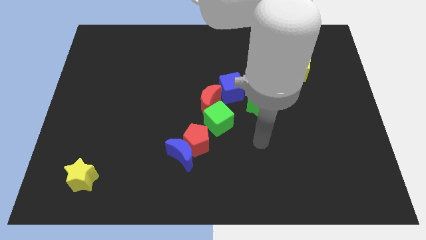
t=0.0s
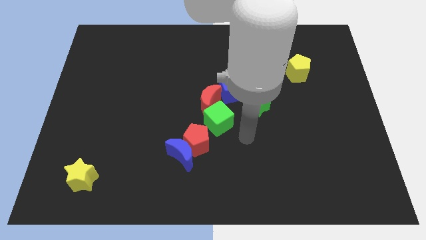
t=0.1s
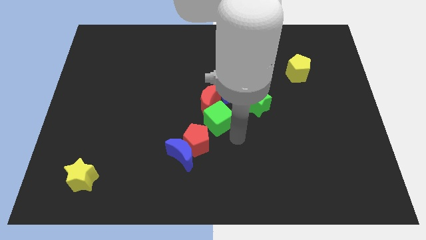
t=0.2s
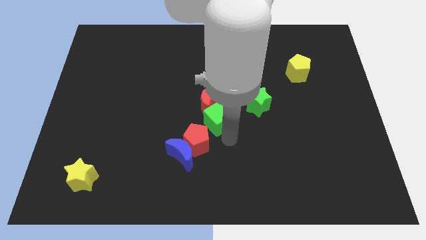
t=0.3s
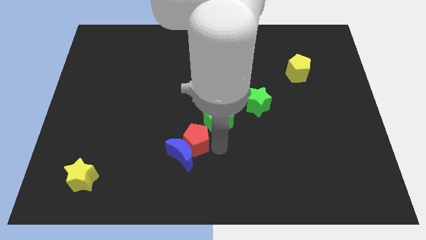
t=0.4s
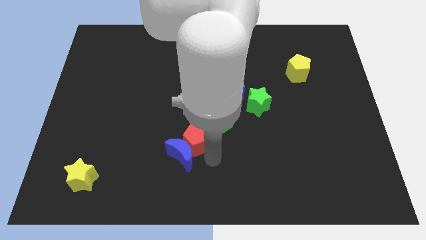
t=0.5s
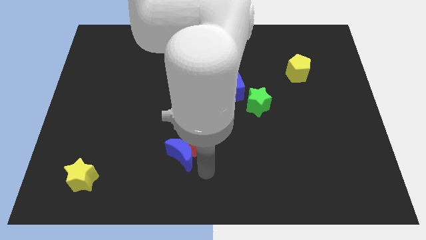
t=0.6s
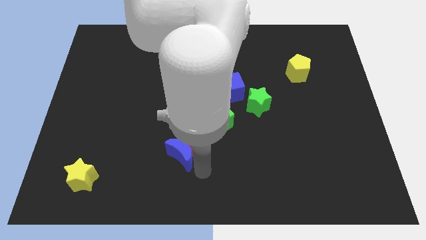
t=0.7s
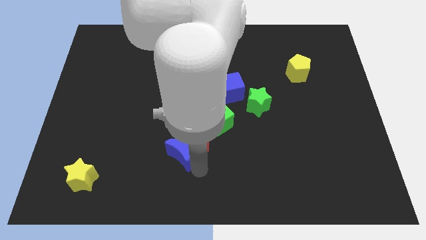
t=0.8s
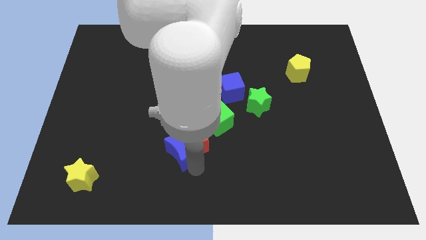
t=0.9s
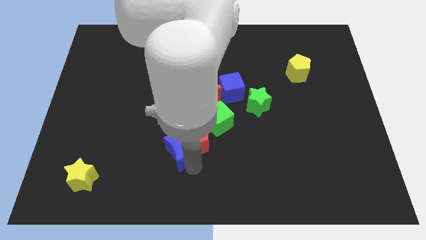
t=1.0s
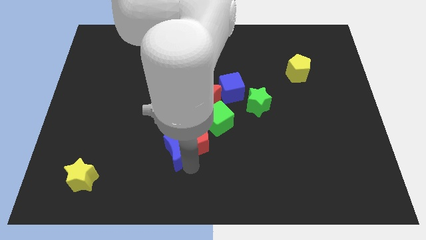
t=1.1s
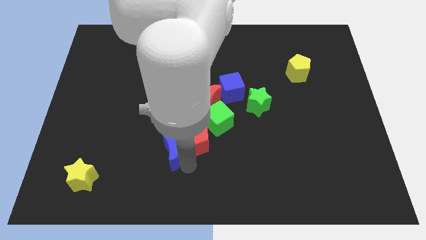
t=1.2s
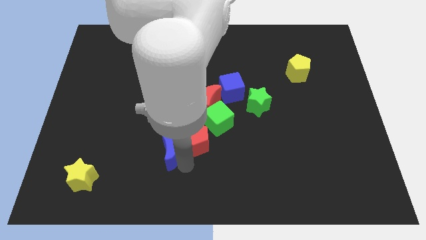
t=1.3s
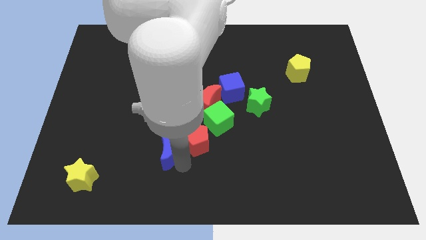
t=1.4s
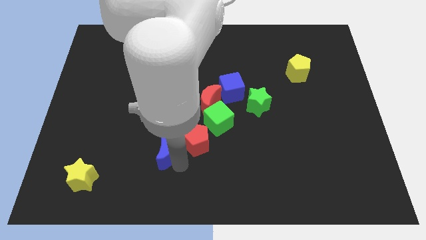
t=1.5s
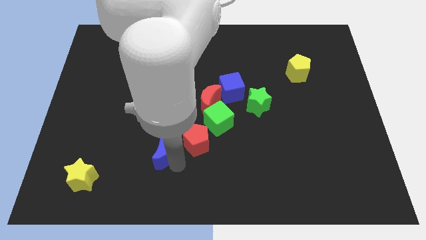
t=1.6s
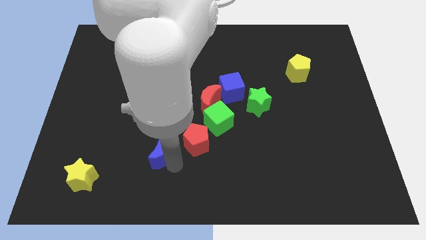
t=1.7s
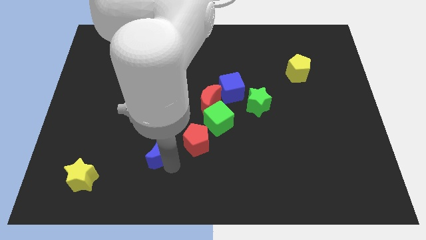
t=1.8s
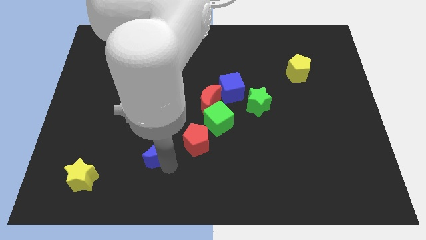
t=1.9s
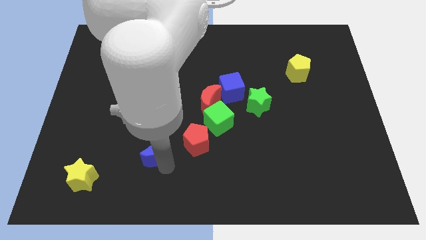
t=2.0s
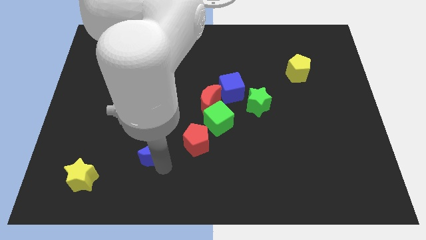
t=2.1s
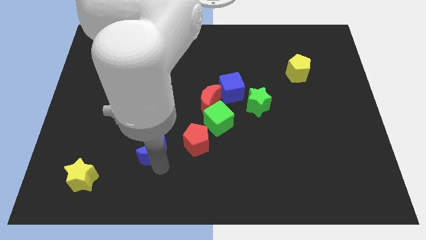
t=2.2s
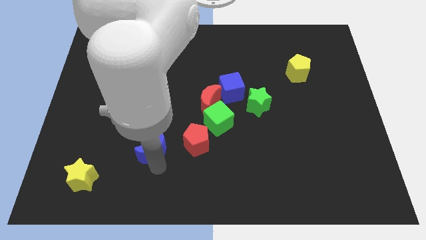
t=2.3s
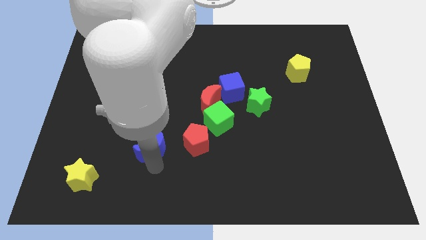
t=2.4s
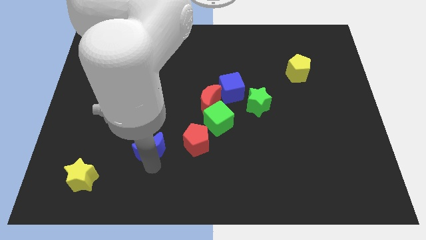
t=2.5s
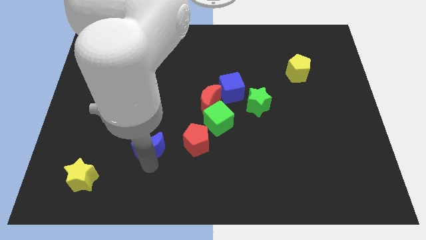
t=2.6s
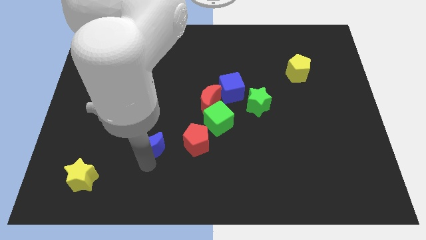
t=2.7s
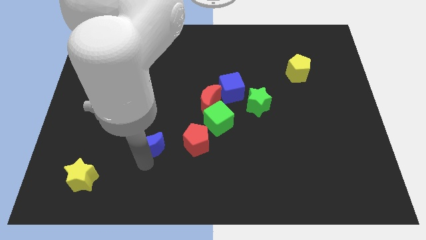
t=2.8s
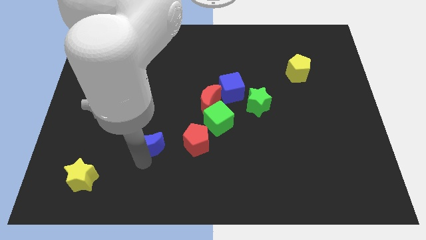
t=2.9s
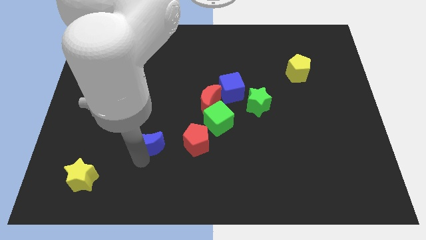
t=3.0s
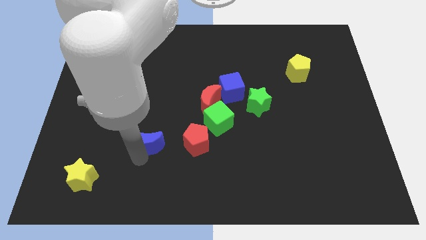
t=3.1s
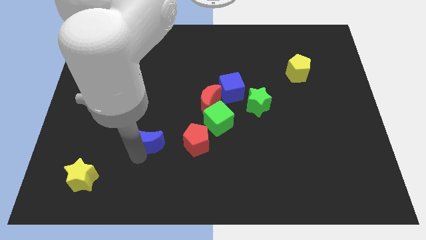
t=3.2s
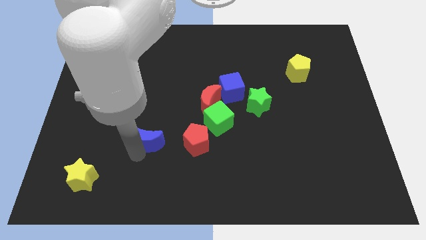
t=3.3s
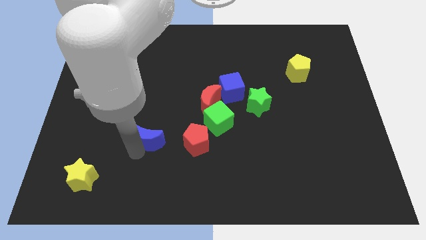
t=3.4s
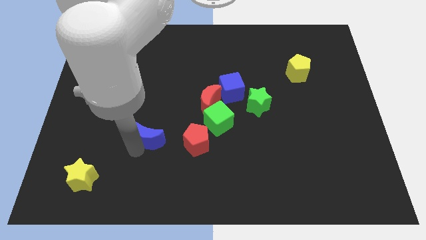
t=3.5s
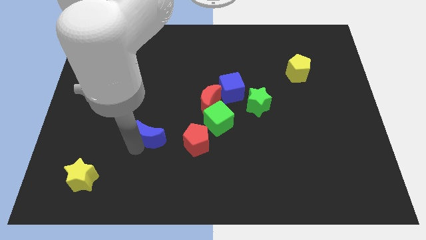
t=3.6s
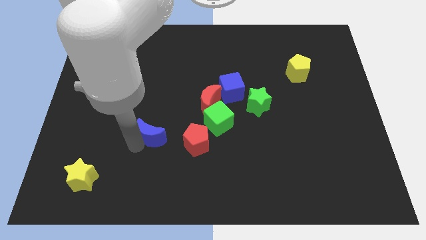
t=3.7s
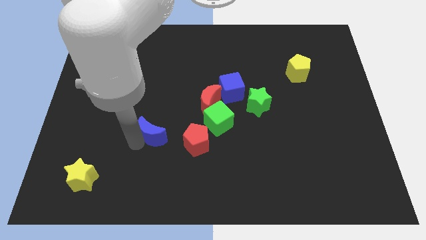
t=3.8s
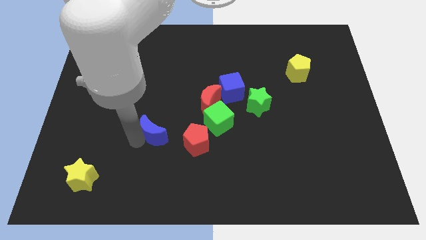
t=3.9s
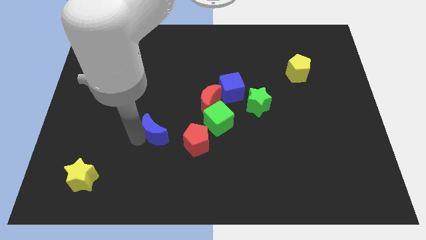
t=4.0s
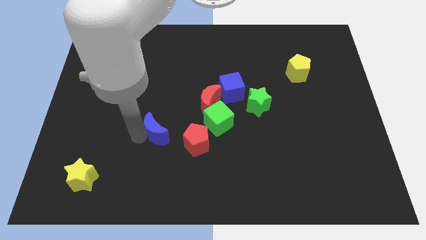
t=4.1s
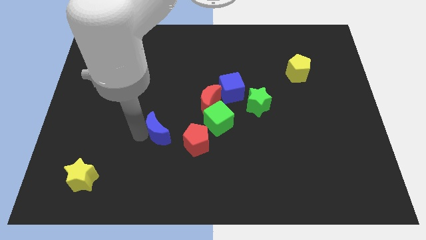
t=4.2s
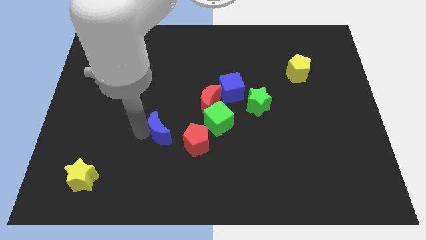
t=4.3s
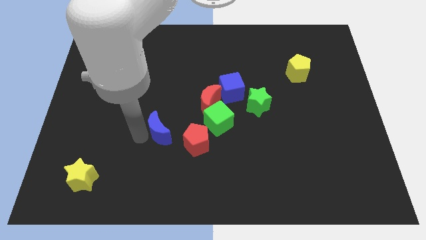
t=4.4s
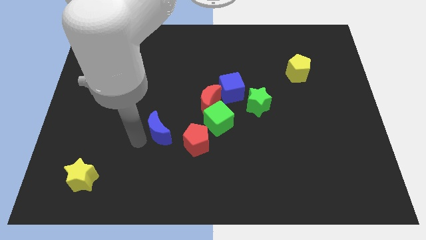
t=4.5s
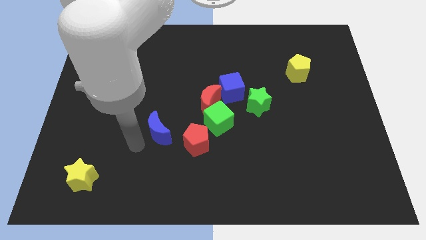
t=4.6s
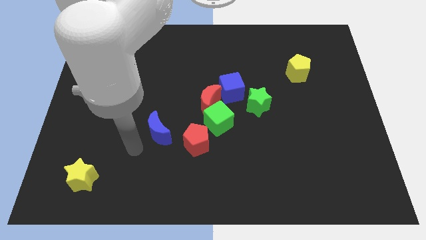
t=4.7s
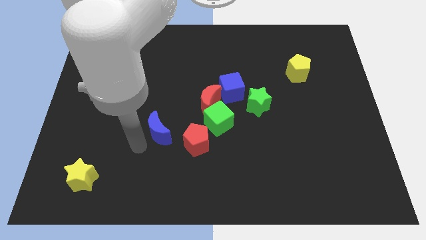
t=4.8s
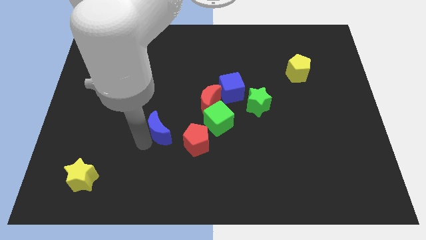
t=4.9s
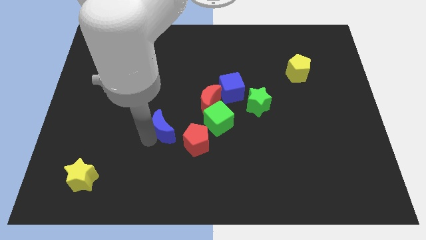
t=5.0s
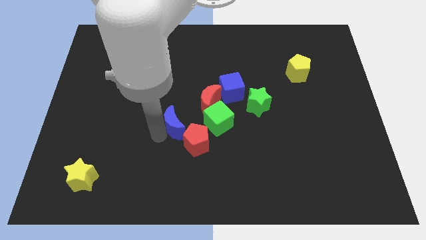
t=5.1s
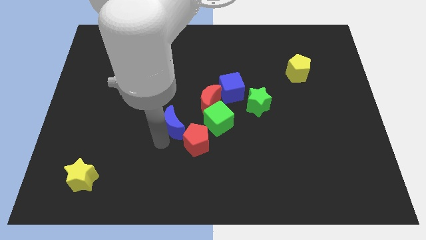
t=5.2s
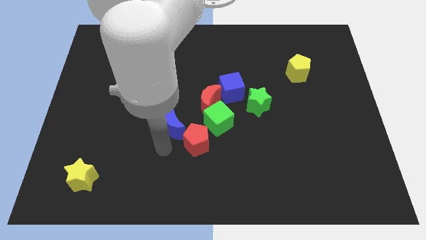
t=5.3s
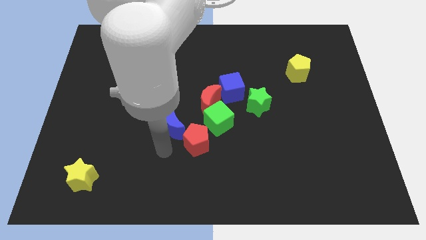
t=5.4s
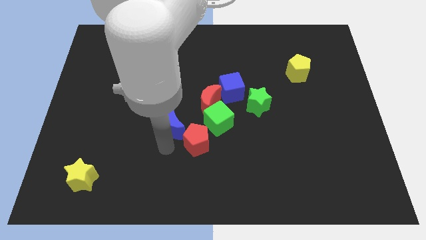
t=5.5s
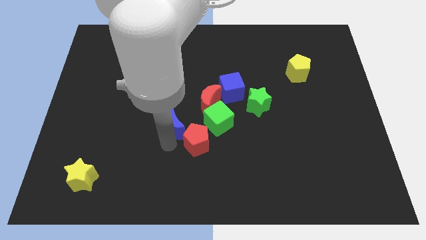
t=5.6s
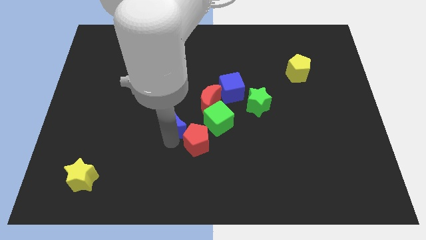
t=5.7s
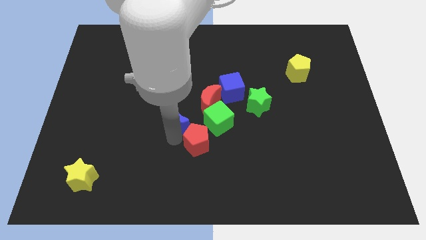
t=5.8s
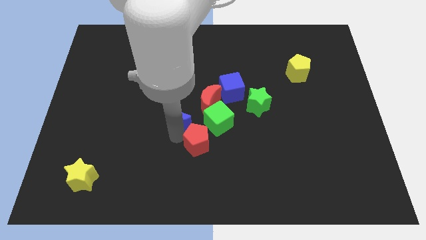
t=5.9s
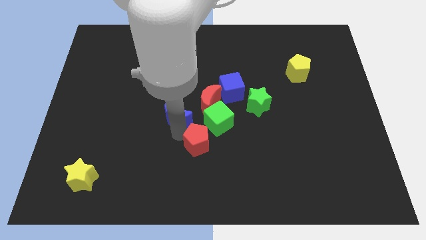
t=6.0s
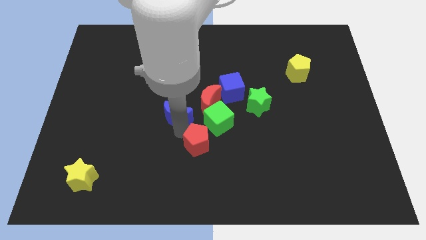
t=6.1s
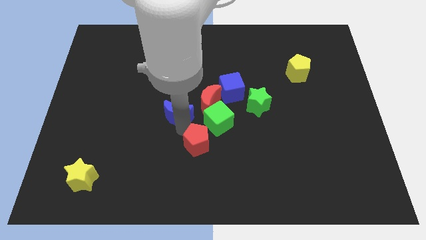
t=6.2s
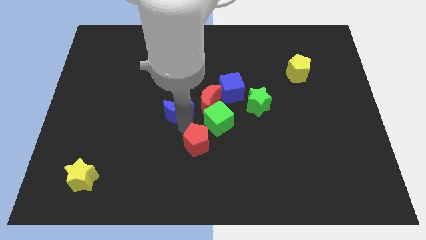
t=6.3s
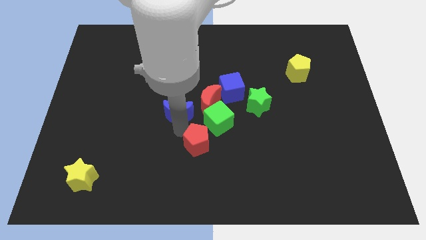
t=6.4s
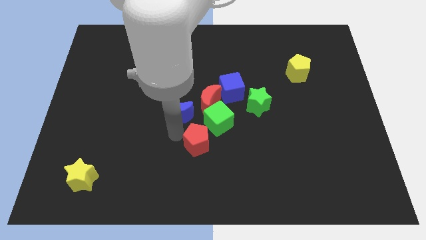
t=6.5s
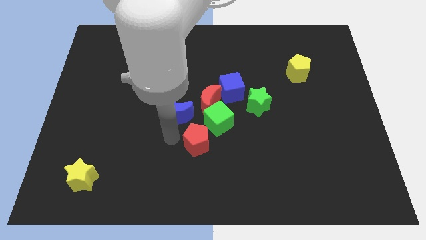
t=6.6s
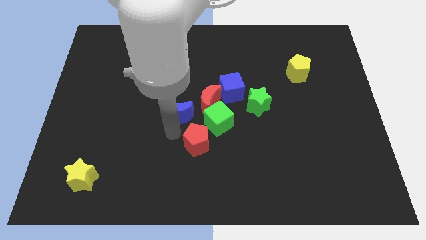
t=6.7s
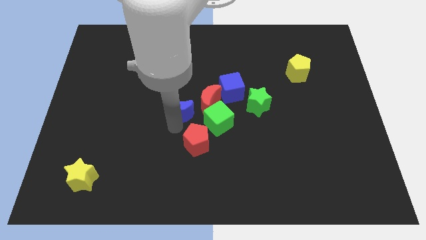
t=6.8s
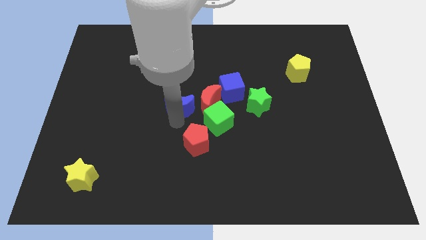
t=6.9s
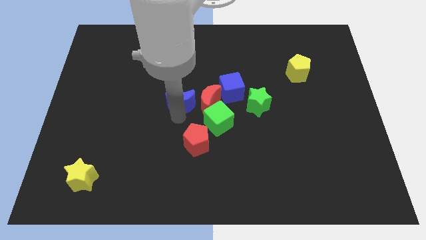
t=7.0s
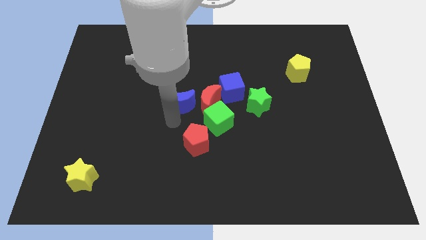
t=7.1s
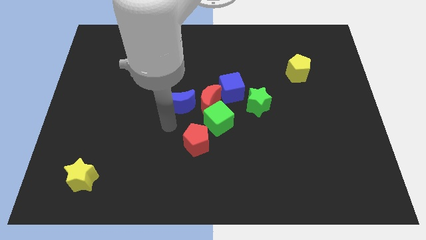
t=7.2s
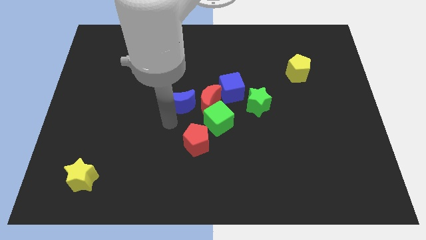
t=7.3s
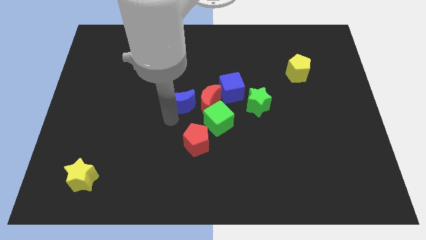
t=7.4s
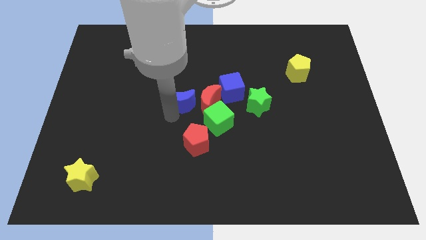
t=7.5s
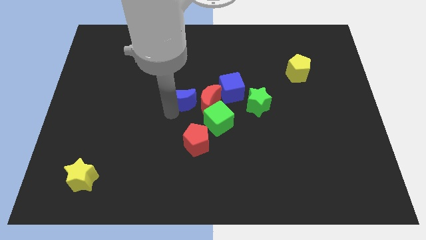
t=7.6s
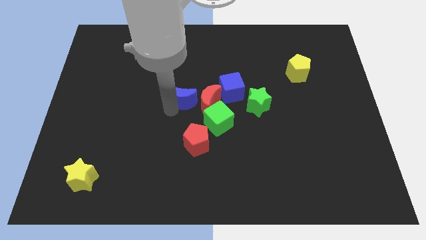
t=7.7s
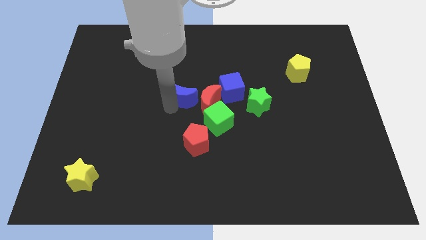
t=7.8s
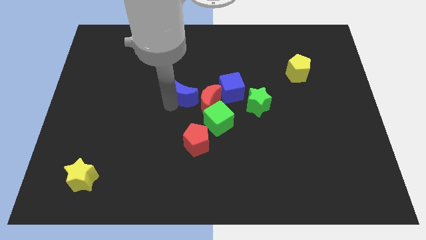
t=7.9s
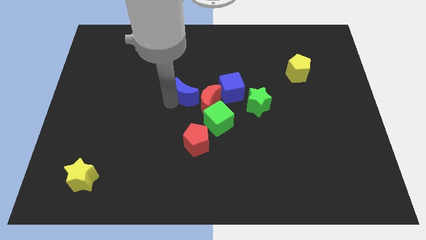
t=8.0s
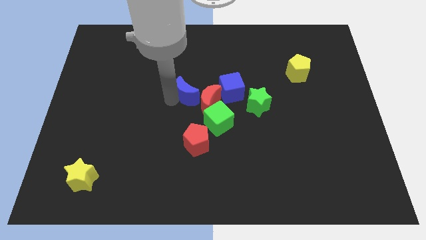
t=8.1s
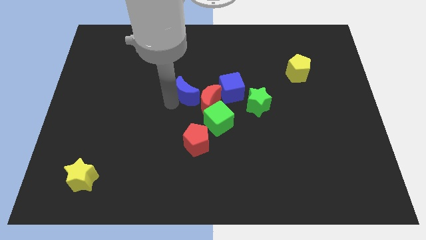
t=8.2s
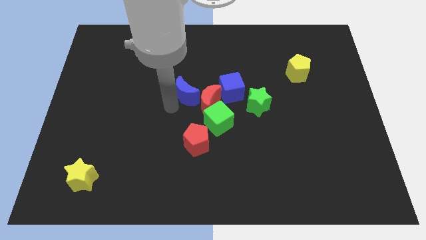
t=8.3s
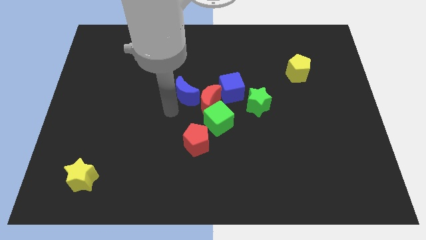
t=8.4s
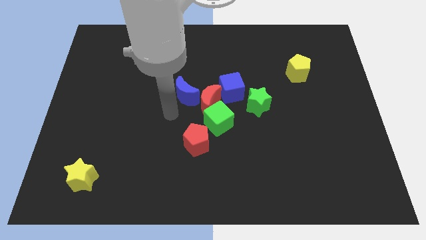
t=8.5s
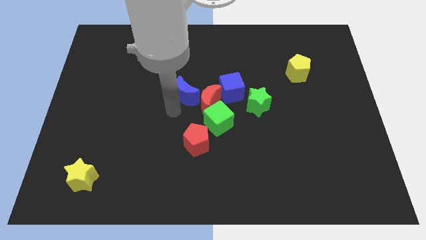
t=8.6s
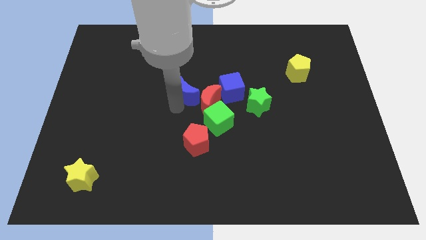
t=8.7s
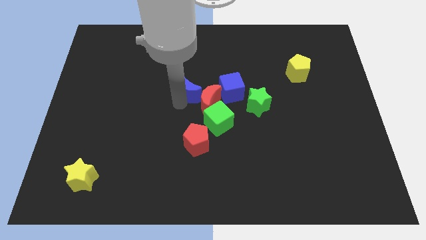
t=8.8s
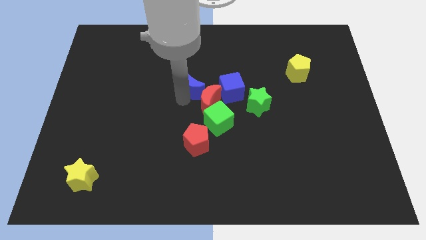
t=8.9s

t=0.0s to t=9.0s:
put the blue moon above the red moon
